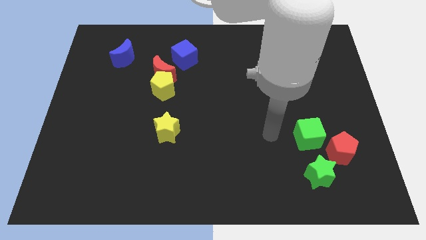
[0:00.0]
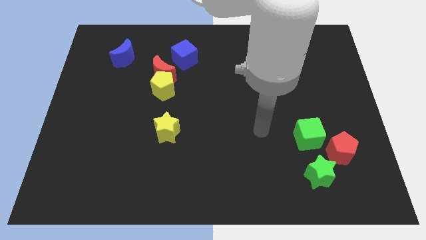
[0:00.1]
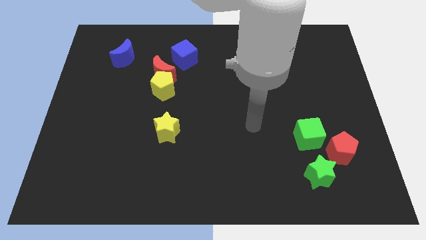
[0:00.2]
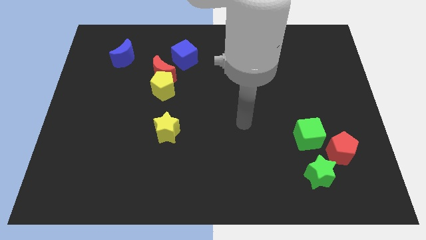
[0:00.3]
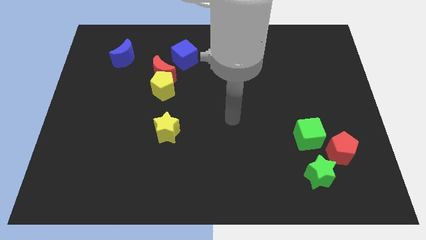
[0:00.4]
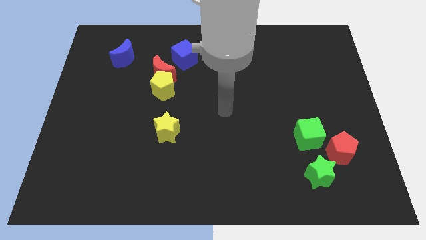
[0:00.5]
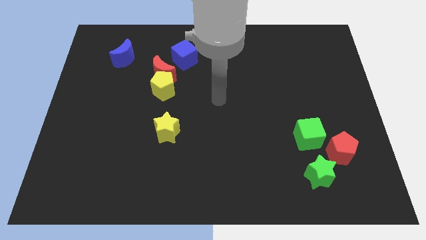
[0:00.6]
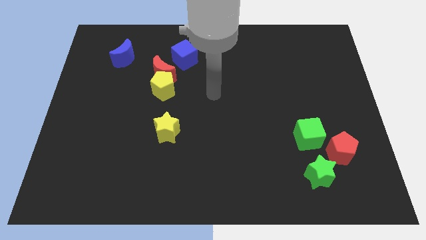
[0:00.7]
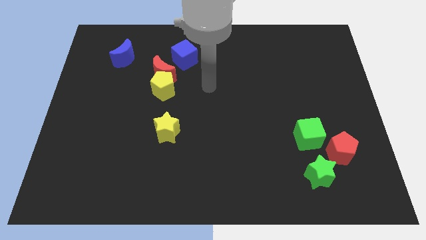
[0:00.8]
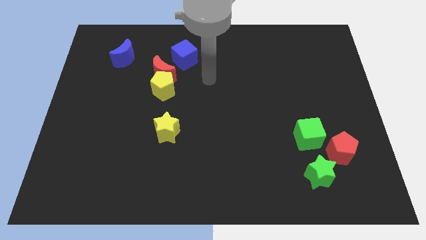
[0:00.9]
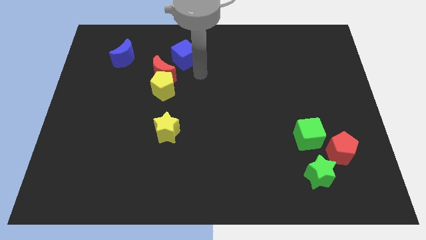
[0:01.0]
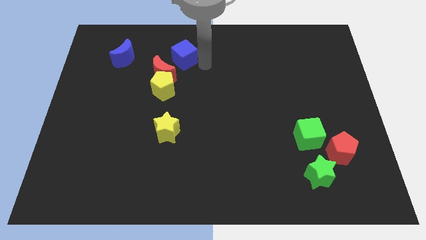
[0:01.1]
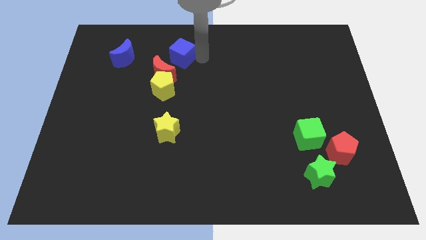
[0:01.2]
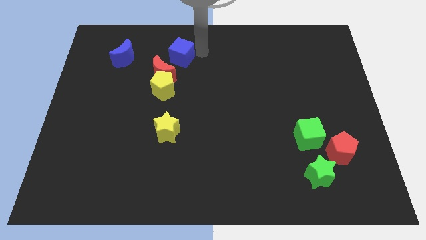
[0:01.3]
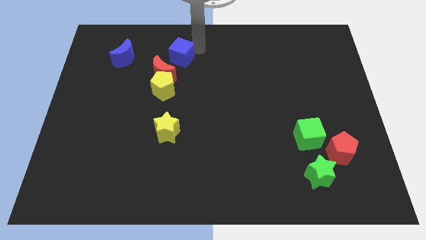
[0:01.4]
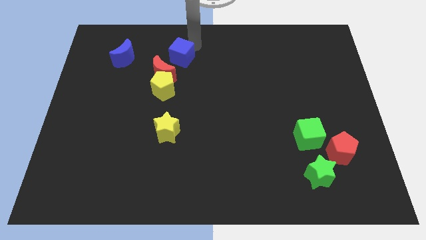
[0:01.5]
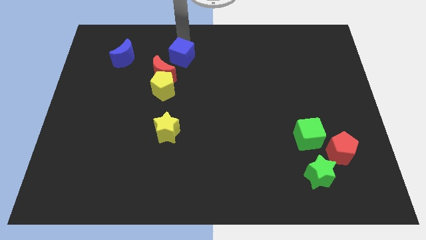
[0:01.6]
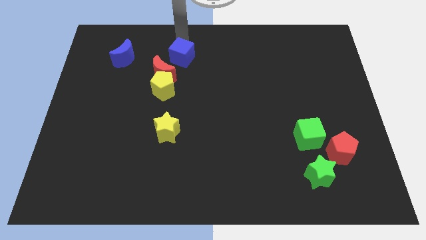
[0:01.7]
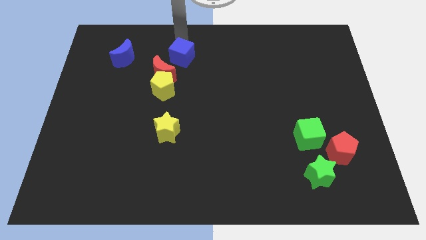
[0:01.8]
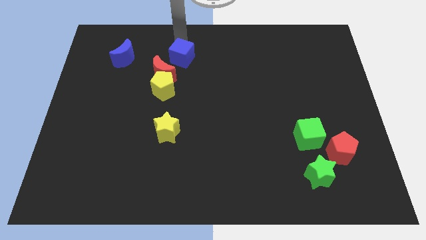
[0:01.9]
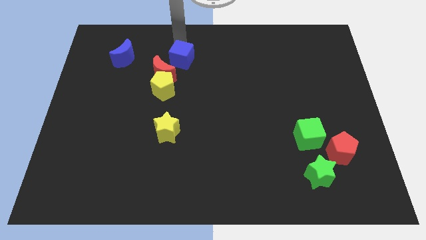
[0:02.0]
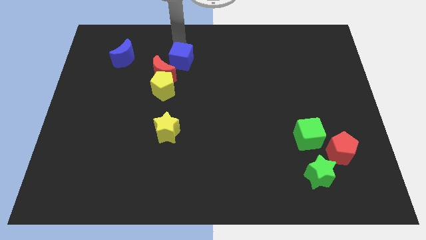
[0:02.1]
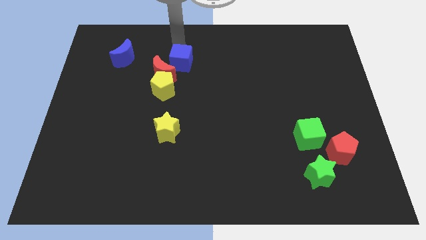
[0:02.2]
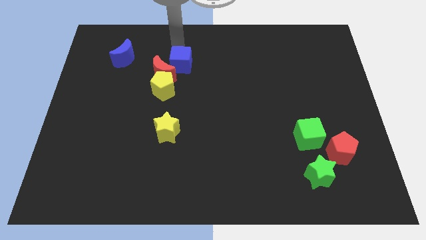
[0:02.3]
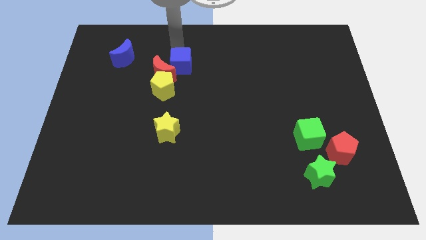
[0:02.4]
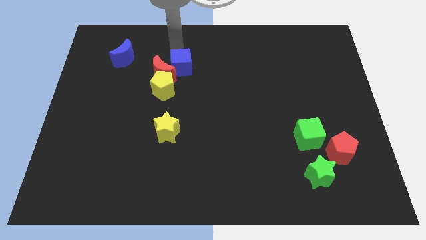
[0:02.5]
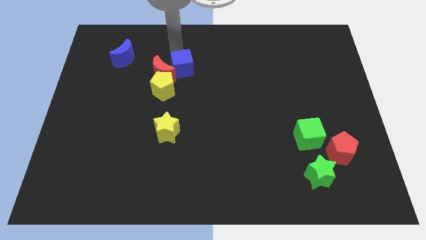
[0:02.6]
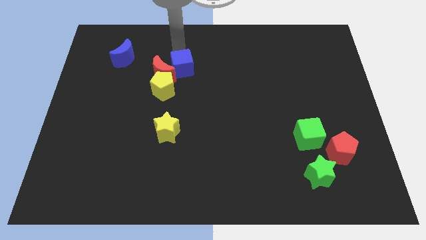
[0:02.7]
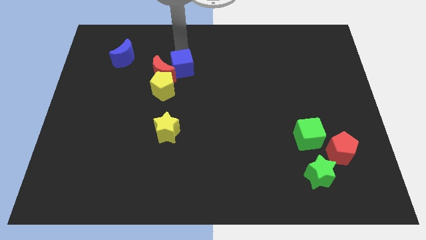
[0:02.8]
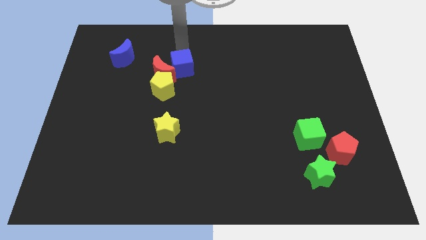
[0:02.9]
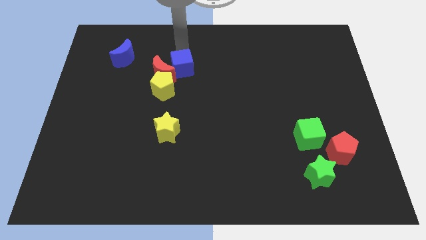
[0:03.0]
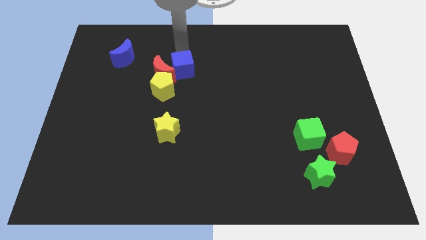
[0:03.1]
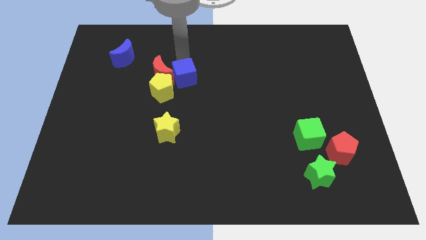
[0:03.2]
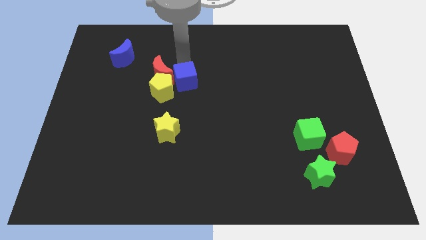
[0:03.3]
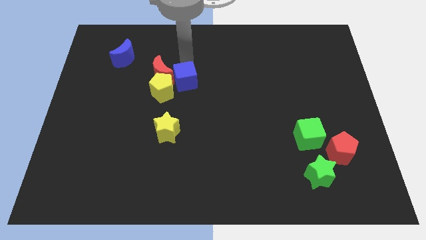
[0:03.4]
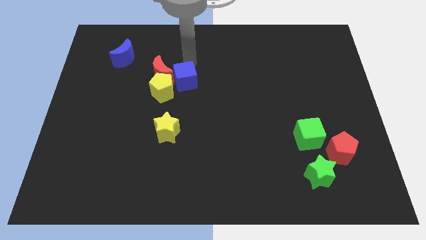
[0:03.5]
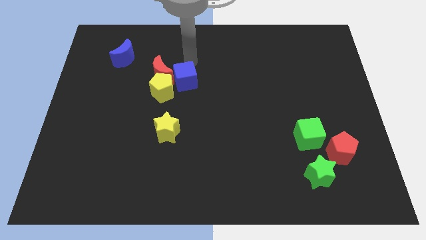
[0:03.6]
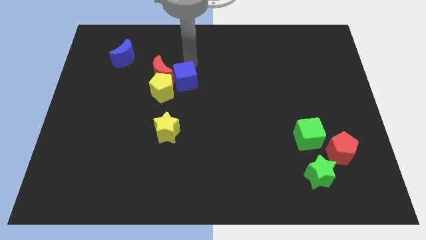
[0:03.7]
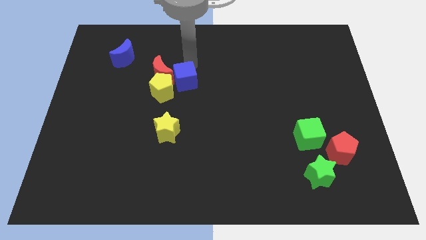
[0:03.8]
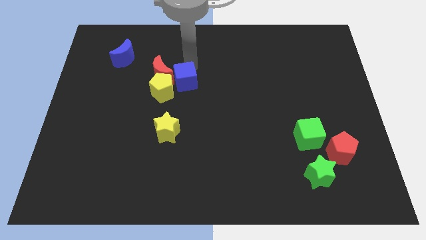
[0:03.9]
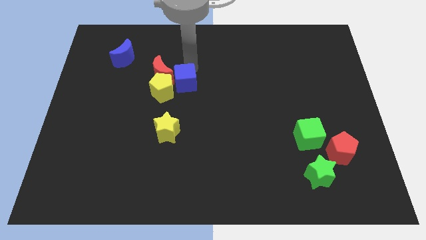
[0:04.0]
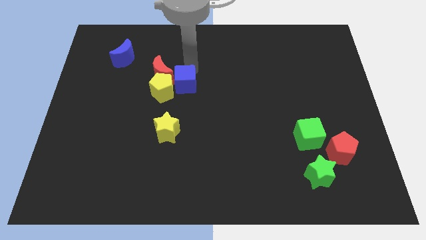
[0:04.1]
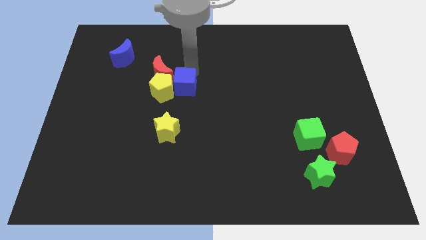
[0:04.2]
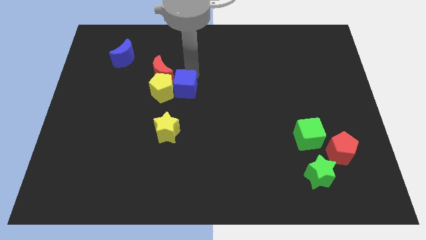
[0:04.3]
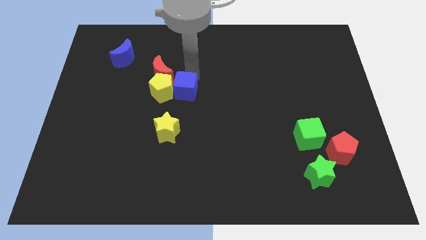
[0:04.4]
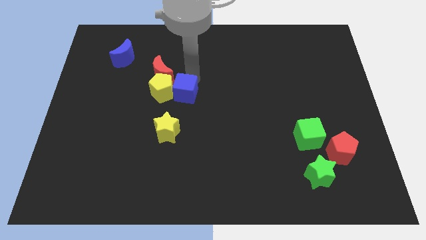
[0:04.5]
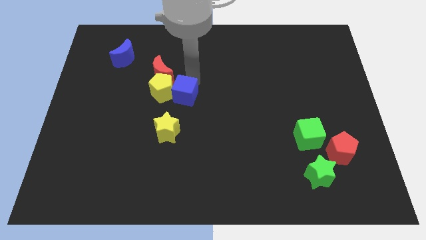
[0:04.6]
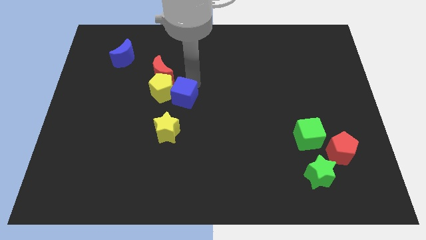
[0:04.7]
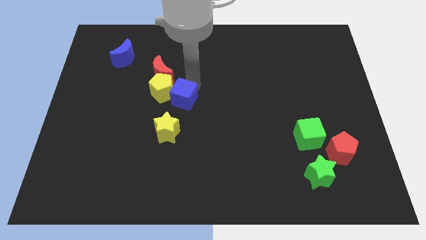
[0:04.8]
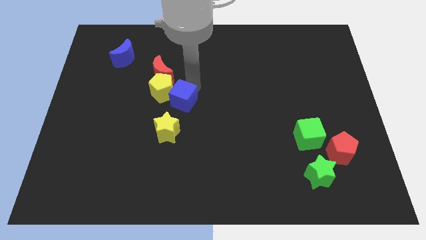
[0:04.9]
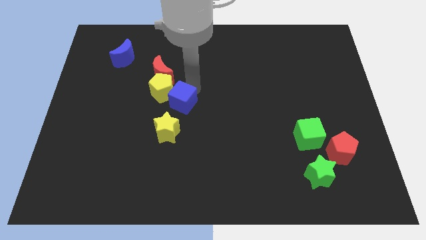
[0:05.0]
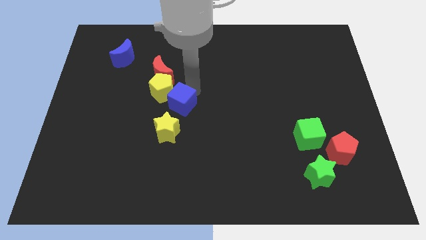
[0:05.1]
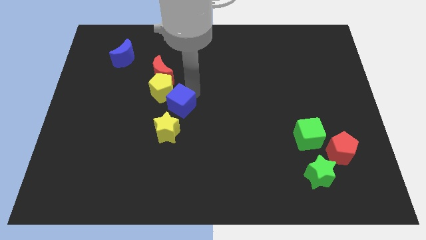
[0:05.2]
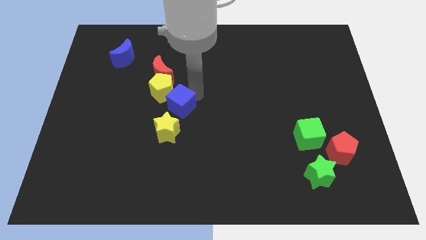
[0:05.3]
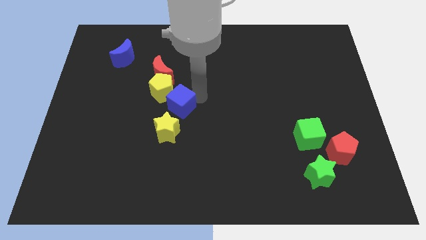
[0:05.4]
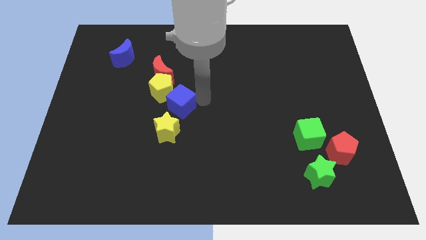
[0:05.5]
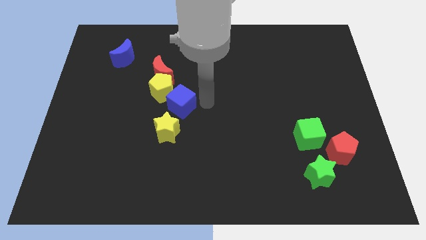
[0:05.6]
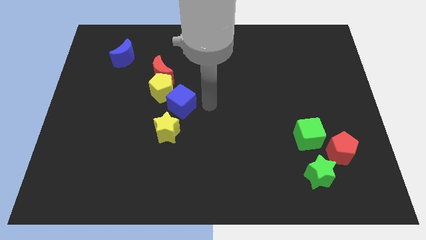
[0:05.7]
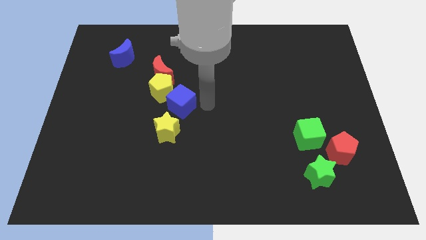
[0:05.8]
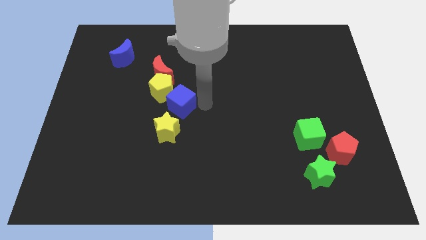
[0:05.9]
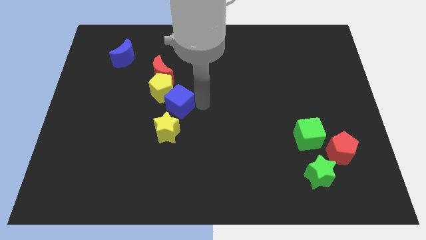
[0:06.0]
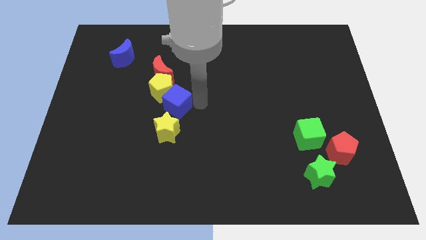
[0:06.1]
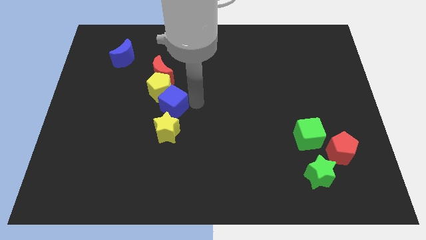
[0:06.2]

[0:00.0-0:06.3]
slightly push the blue cube down and to the left

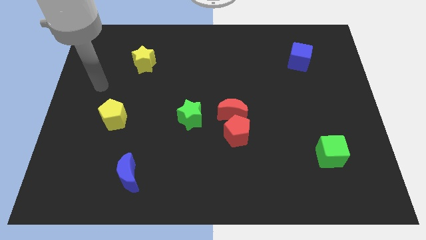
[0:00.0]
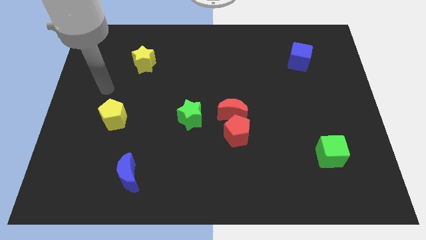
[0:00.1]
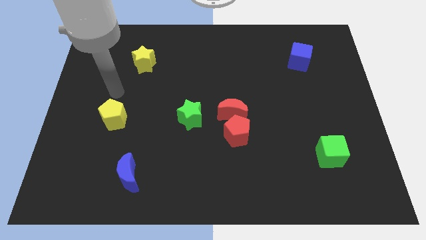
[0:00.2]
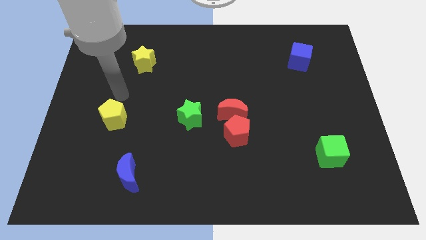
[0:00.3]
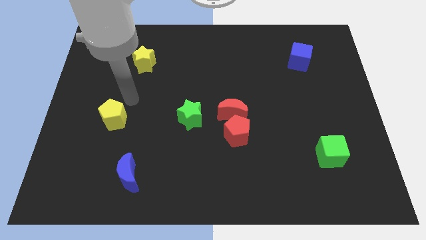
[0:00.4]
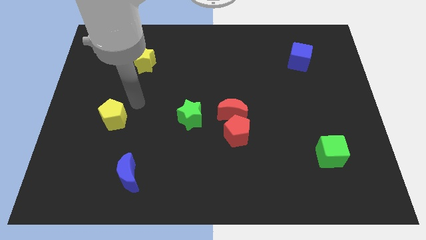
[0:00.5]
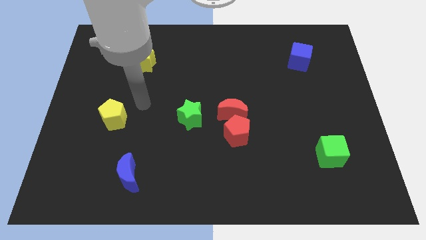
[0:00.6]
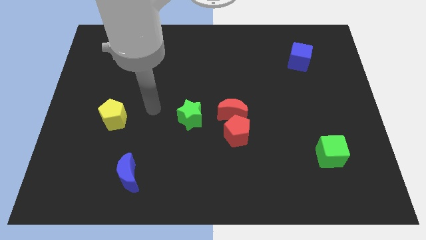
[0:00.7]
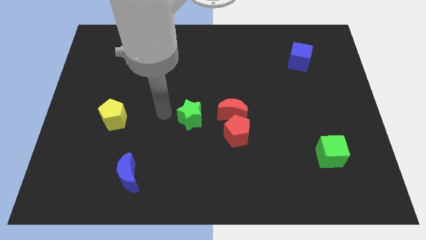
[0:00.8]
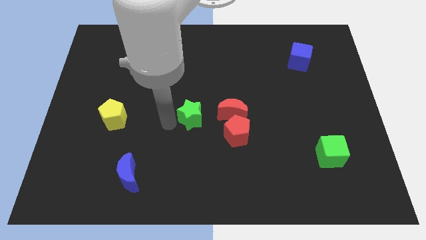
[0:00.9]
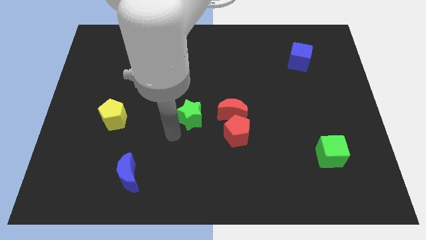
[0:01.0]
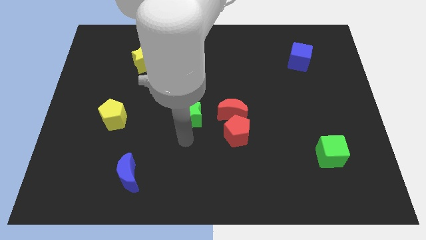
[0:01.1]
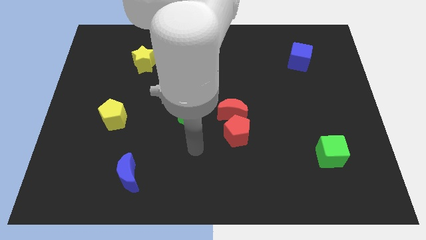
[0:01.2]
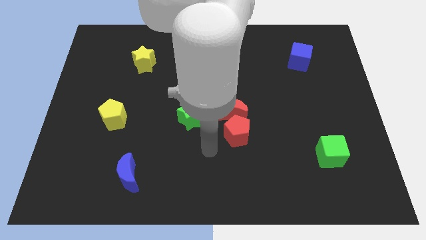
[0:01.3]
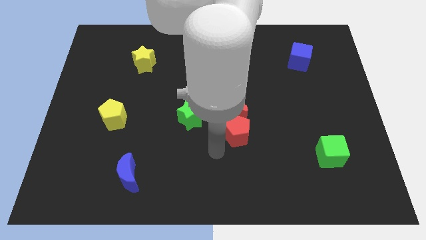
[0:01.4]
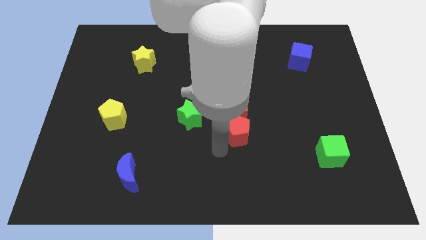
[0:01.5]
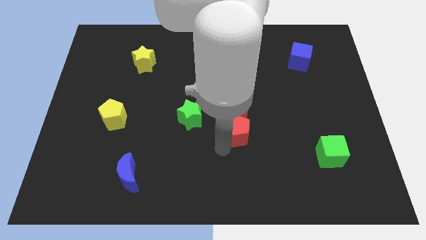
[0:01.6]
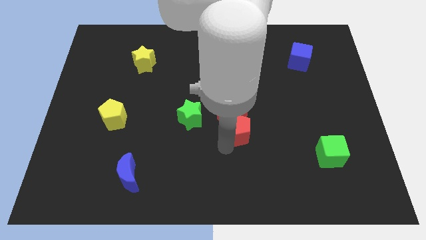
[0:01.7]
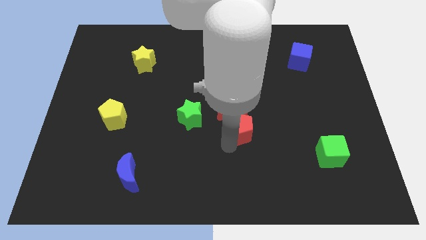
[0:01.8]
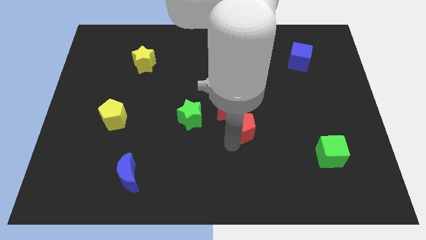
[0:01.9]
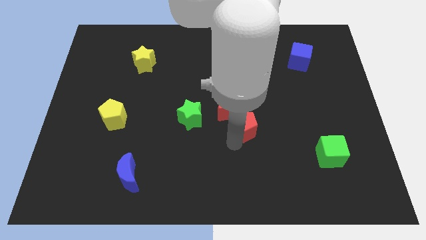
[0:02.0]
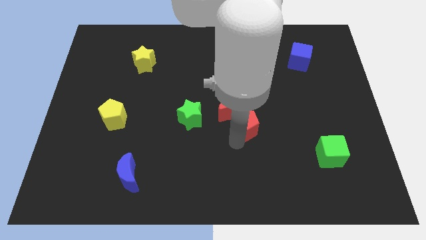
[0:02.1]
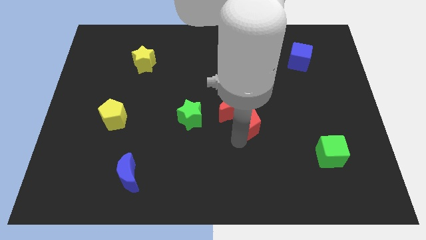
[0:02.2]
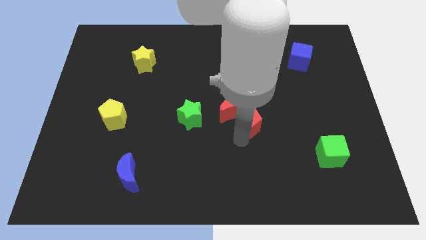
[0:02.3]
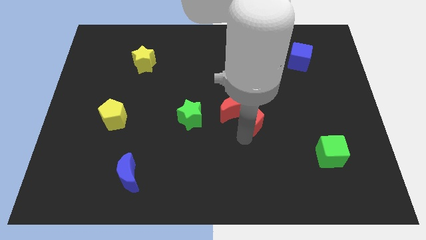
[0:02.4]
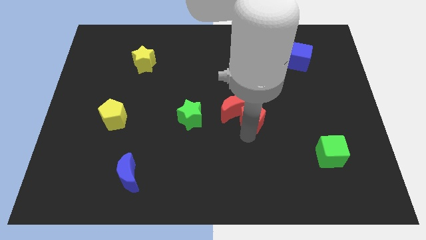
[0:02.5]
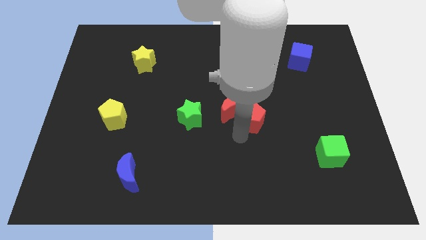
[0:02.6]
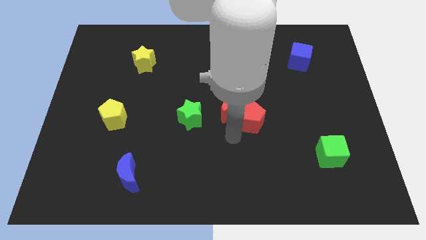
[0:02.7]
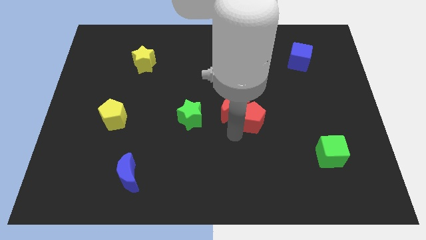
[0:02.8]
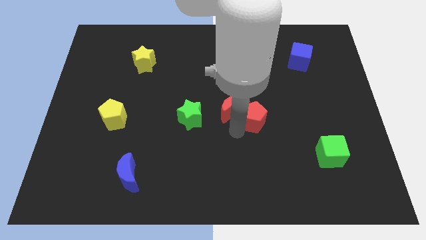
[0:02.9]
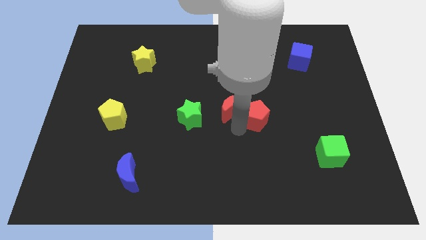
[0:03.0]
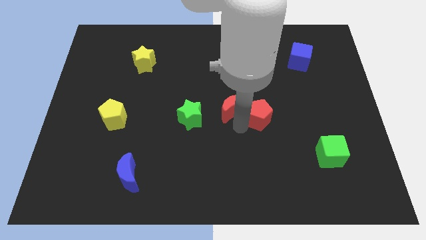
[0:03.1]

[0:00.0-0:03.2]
push the red pentagon up and to the right slightly
